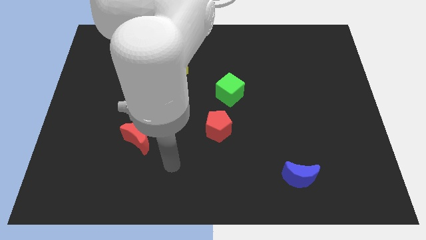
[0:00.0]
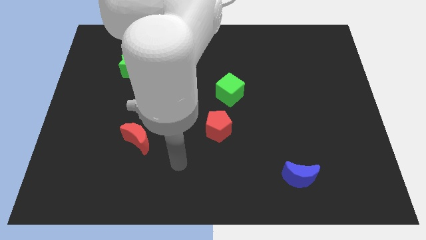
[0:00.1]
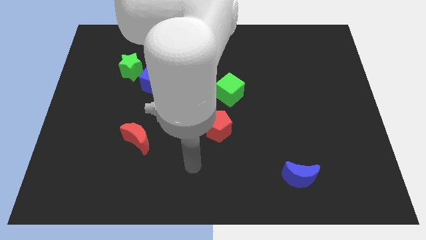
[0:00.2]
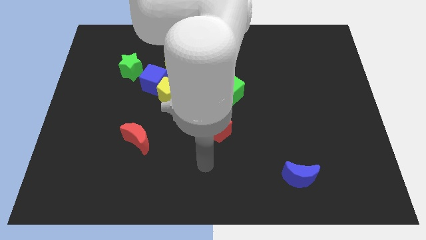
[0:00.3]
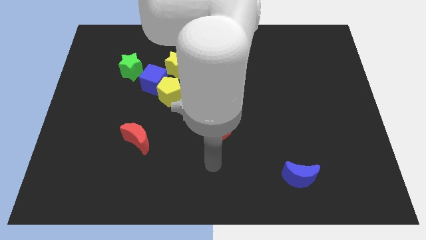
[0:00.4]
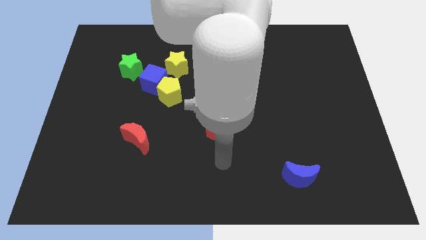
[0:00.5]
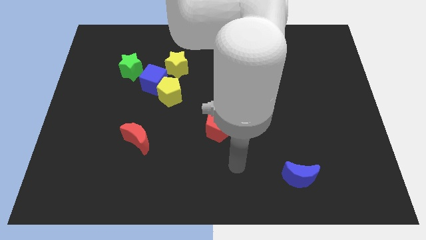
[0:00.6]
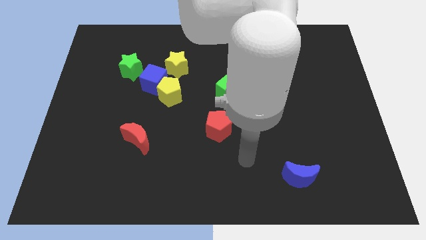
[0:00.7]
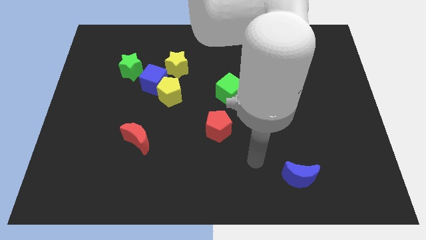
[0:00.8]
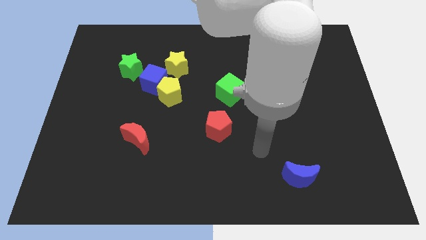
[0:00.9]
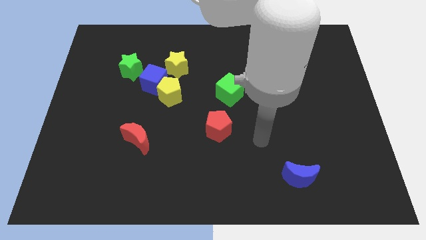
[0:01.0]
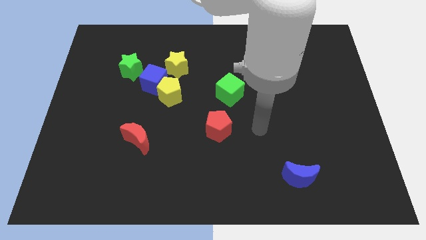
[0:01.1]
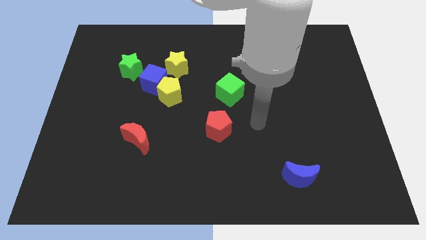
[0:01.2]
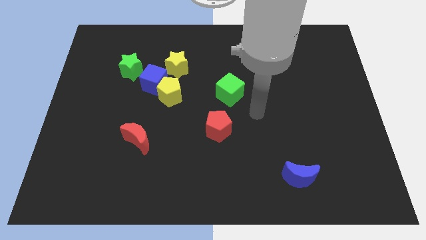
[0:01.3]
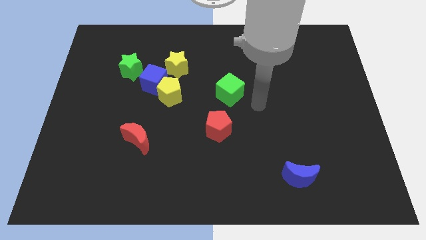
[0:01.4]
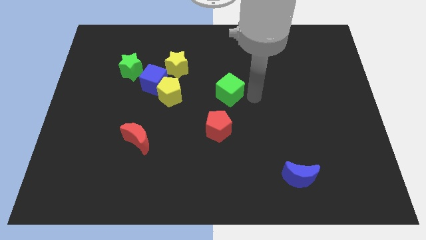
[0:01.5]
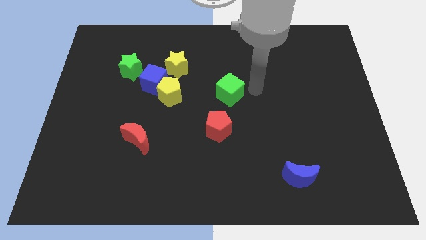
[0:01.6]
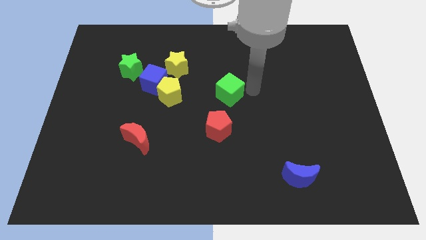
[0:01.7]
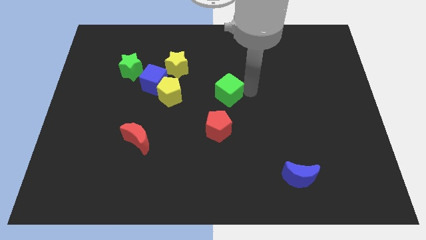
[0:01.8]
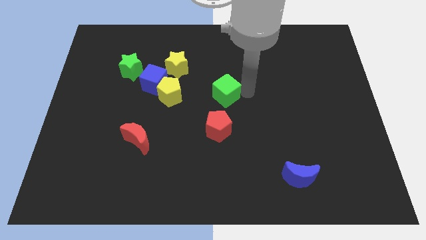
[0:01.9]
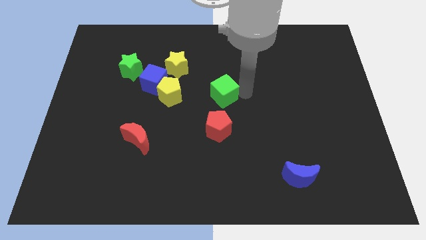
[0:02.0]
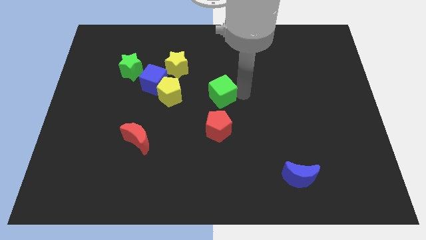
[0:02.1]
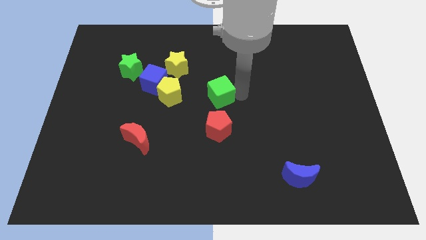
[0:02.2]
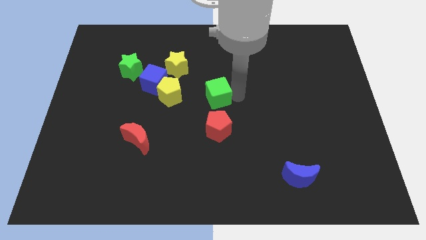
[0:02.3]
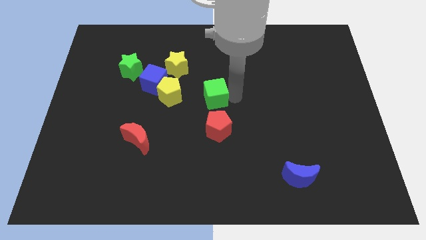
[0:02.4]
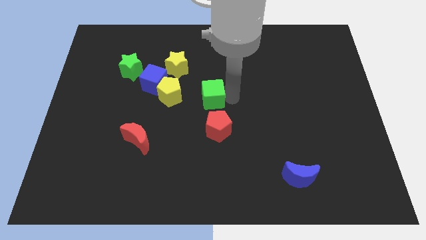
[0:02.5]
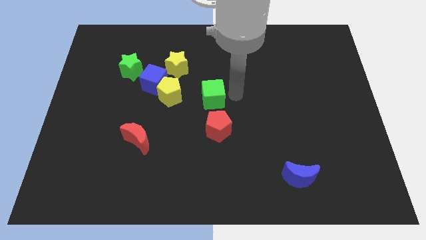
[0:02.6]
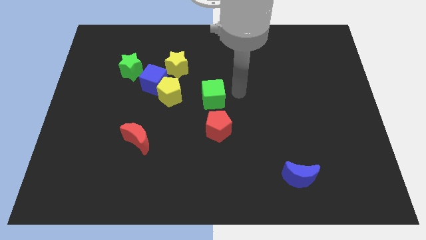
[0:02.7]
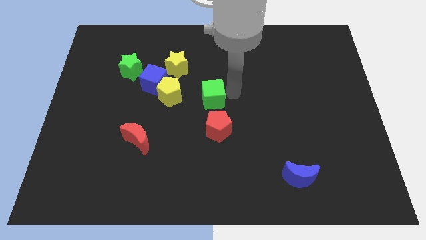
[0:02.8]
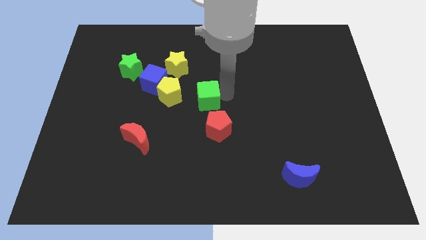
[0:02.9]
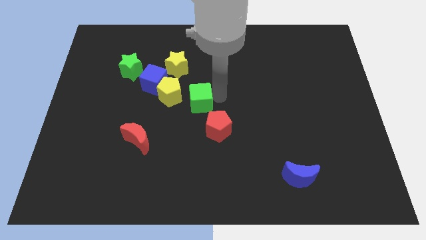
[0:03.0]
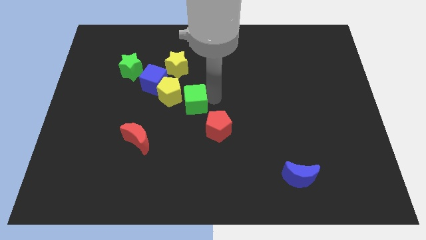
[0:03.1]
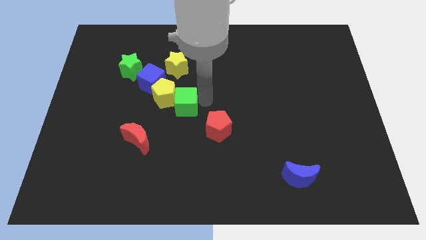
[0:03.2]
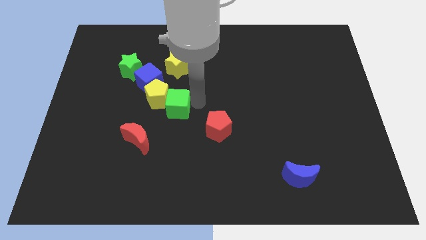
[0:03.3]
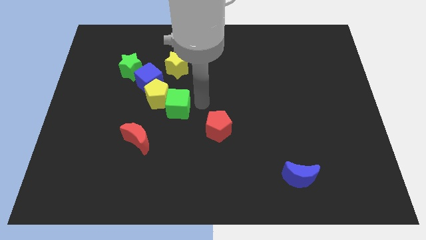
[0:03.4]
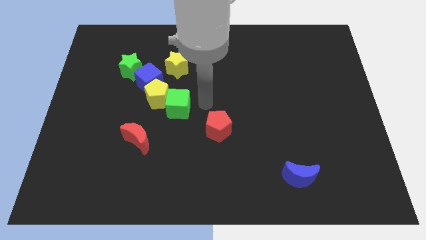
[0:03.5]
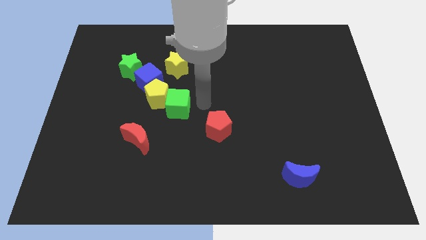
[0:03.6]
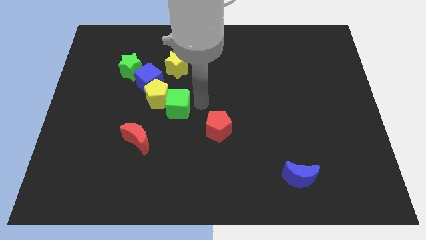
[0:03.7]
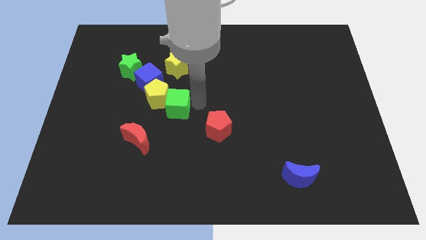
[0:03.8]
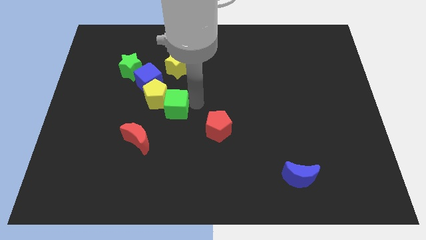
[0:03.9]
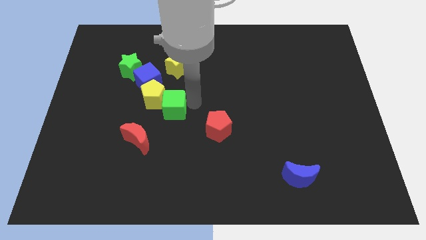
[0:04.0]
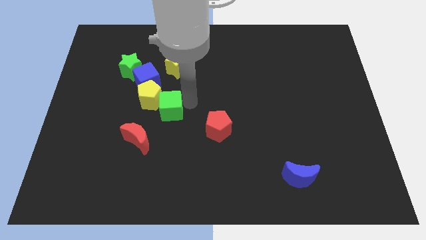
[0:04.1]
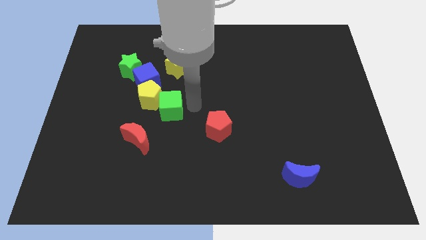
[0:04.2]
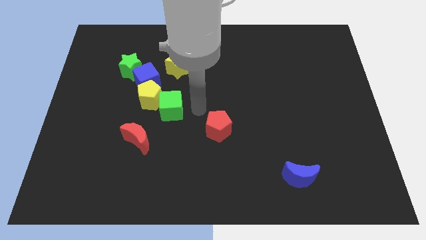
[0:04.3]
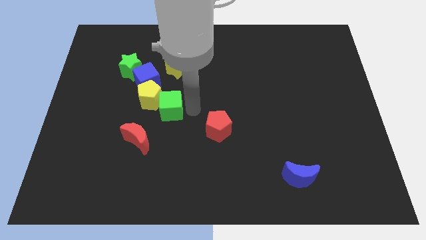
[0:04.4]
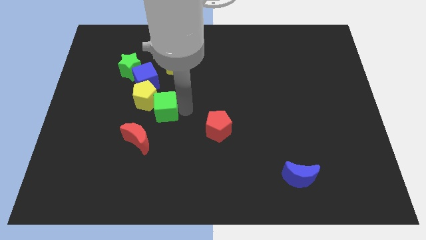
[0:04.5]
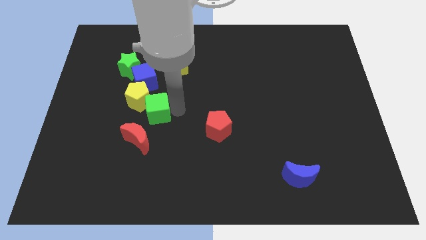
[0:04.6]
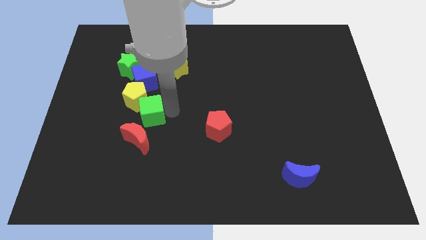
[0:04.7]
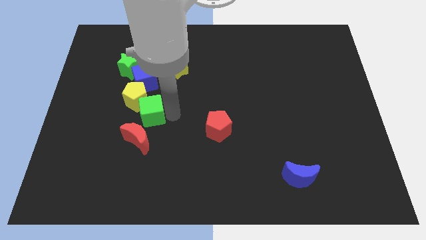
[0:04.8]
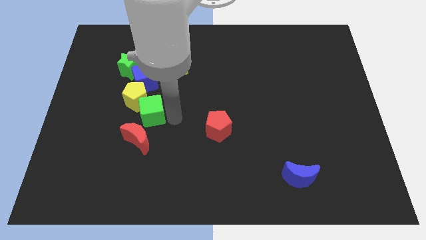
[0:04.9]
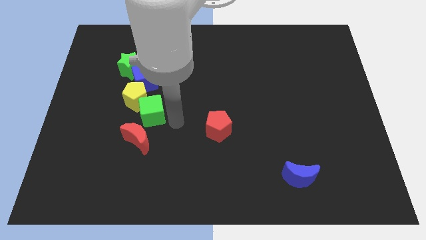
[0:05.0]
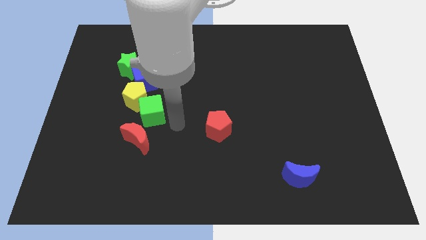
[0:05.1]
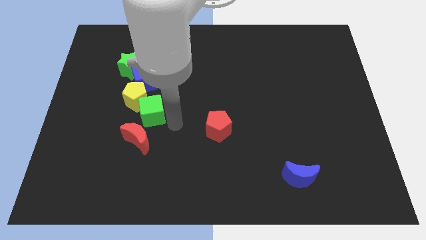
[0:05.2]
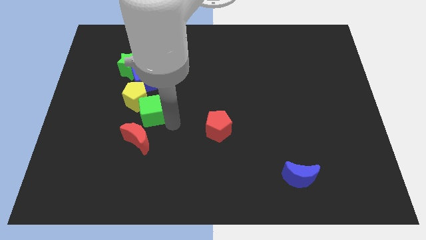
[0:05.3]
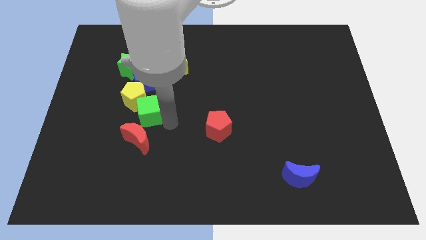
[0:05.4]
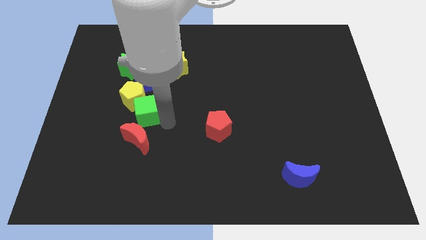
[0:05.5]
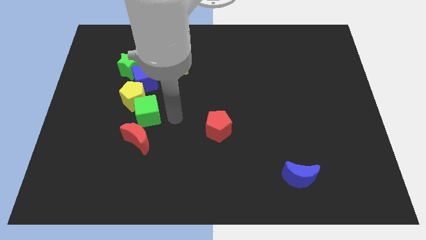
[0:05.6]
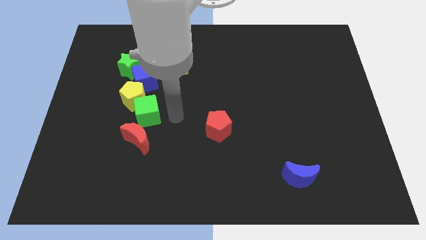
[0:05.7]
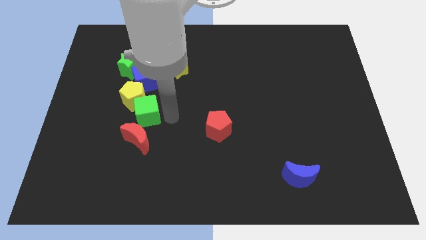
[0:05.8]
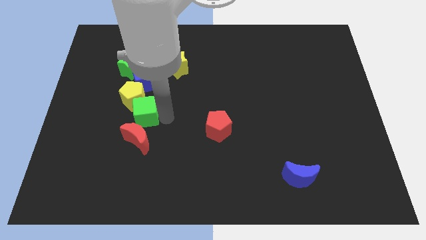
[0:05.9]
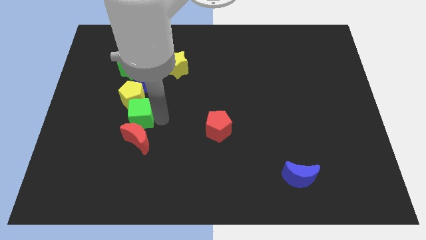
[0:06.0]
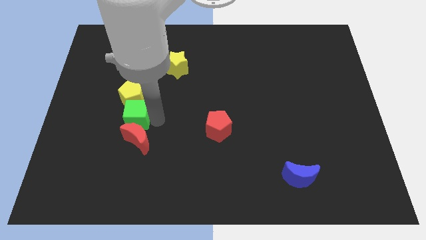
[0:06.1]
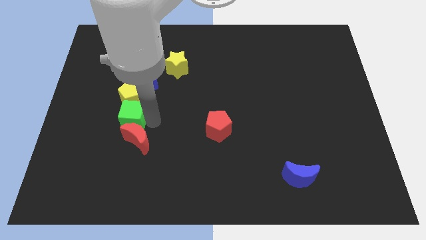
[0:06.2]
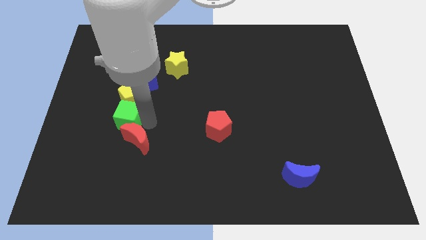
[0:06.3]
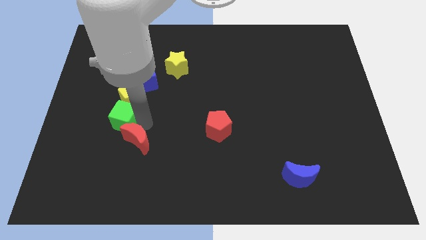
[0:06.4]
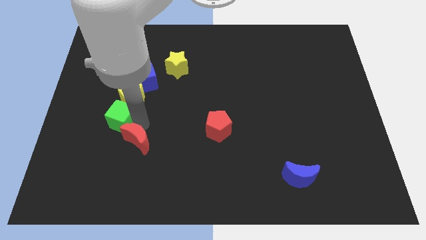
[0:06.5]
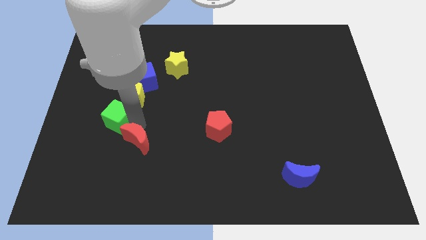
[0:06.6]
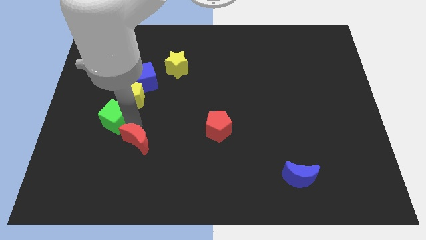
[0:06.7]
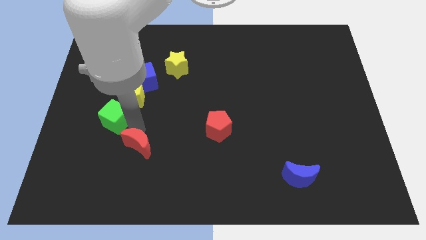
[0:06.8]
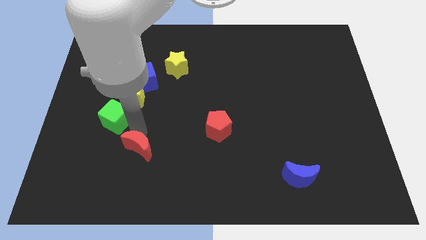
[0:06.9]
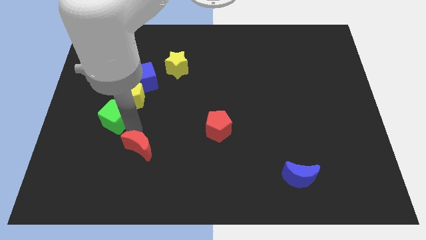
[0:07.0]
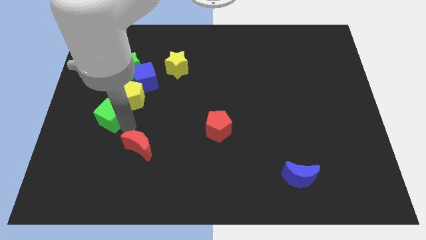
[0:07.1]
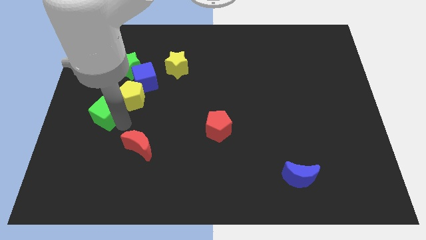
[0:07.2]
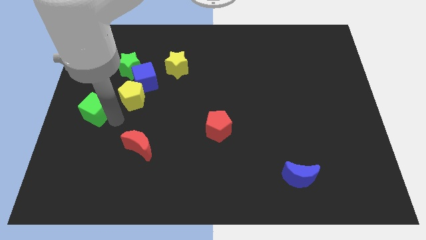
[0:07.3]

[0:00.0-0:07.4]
push the green cube to the center left
